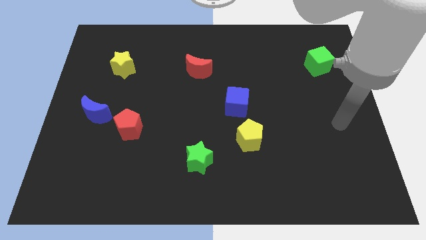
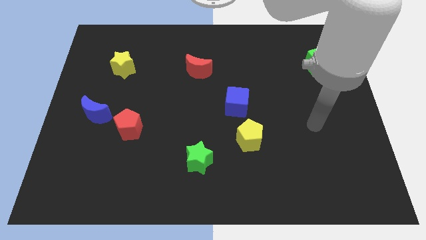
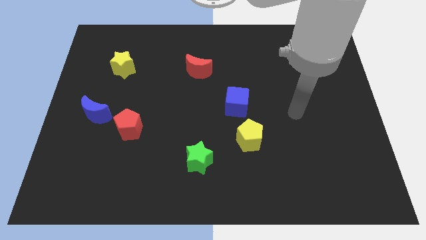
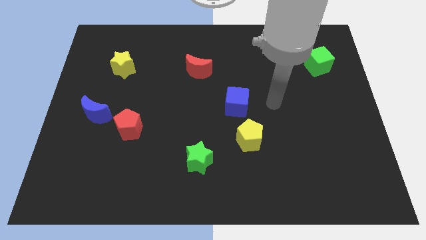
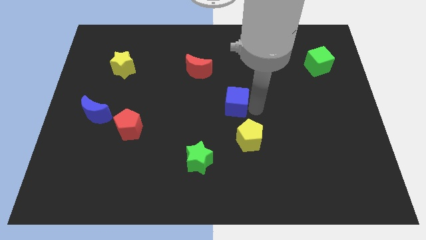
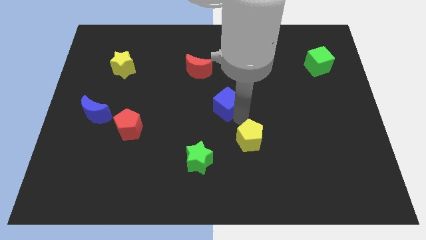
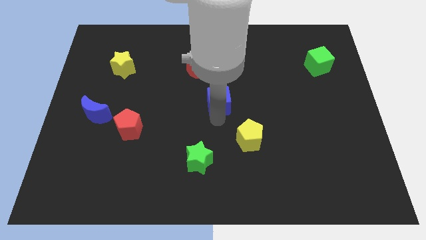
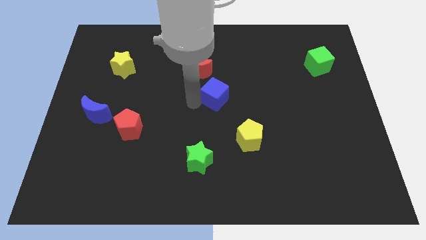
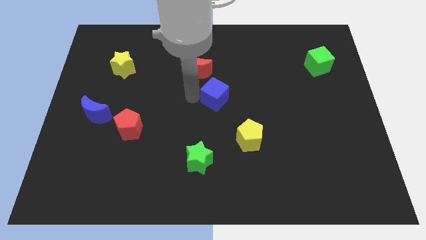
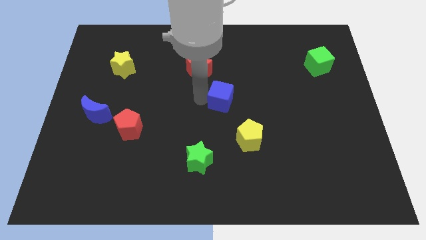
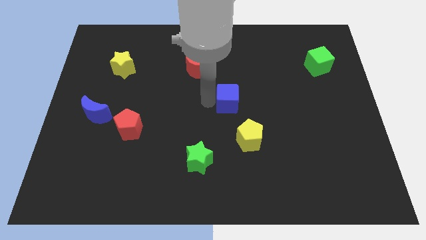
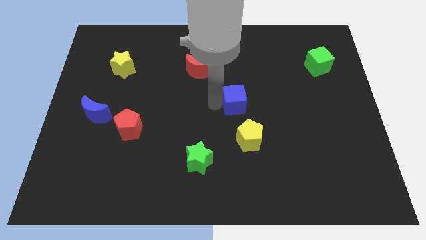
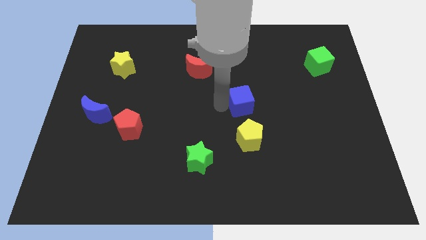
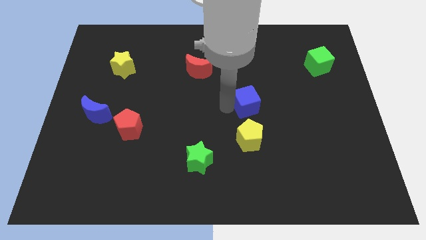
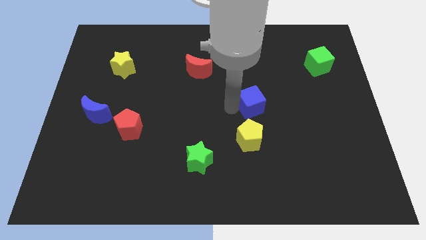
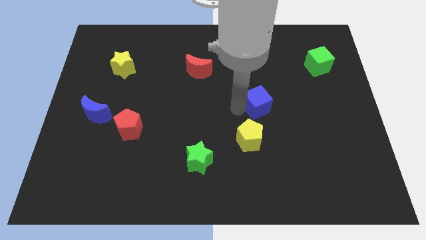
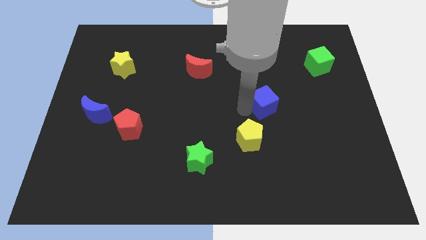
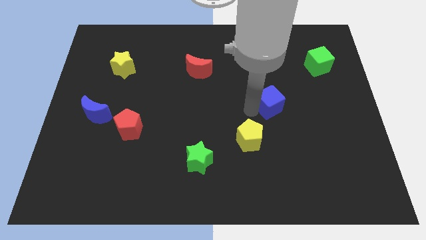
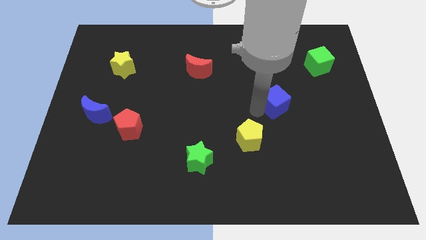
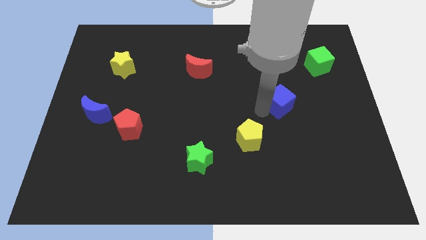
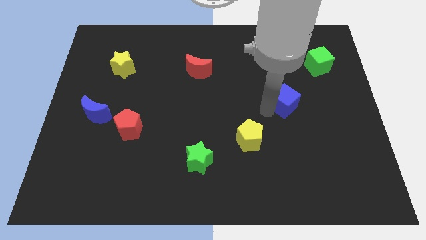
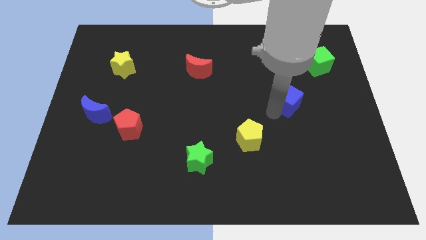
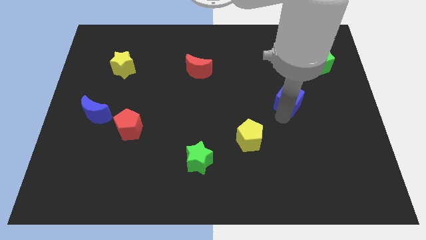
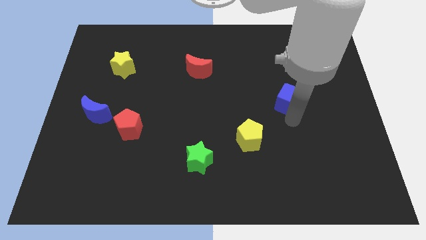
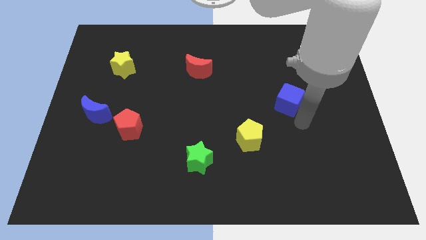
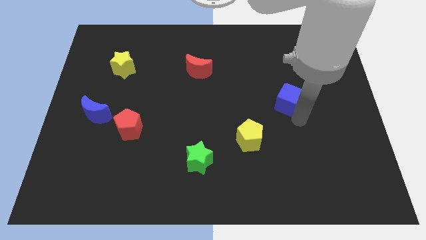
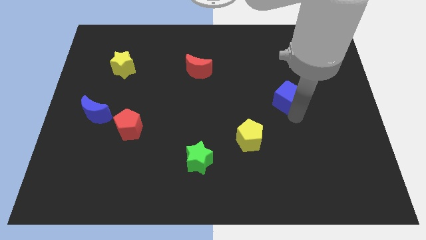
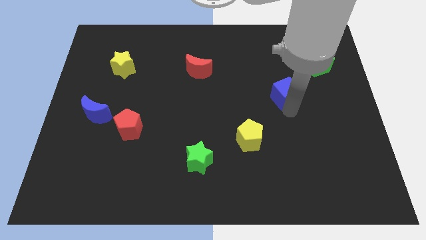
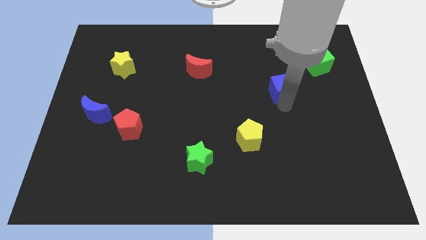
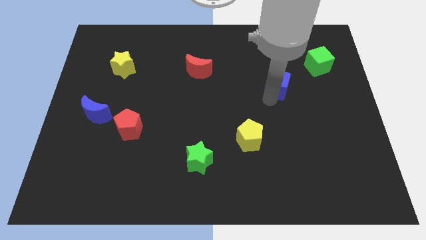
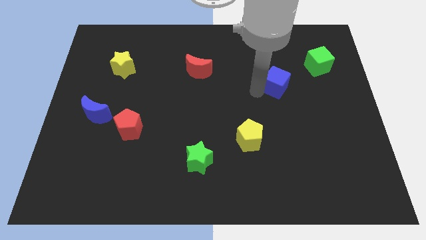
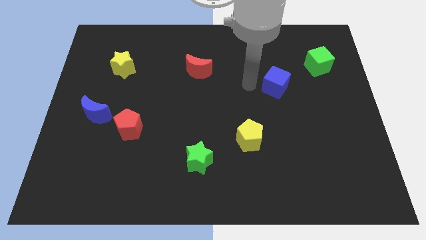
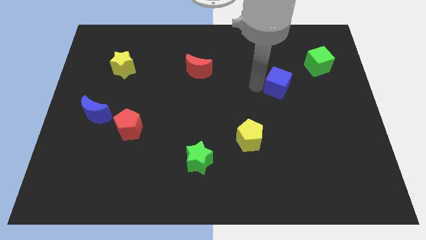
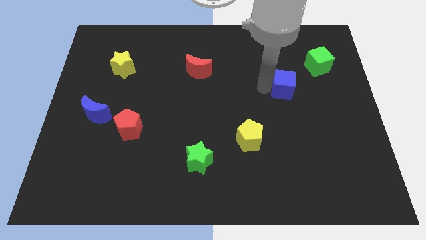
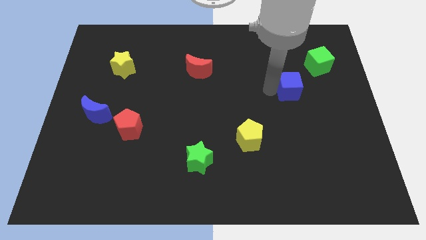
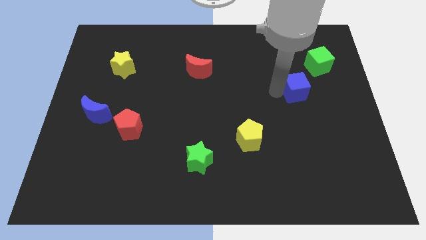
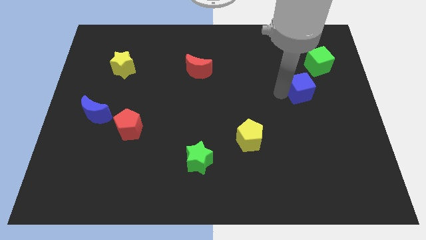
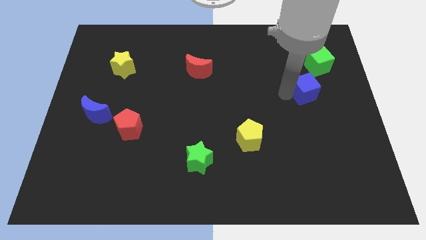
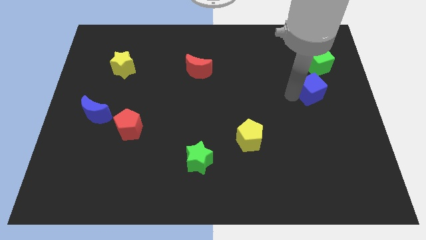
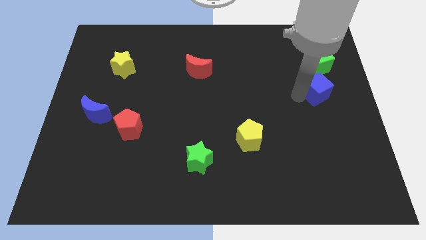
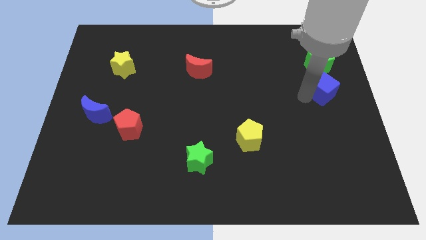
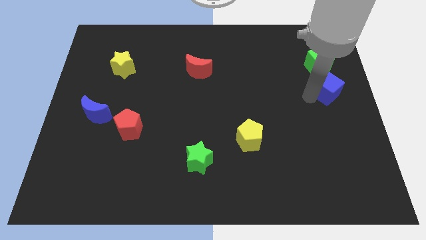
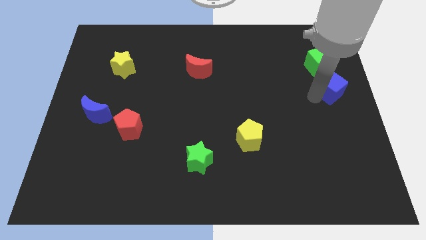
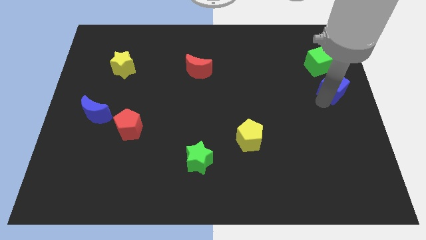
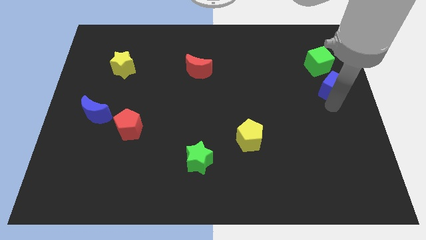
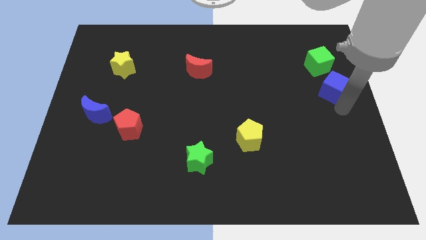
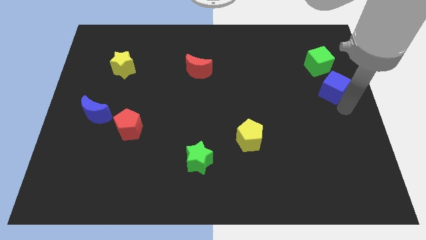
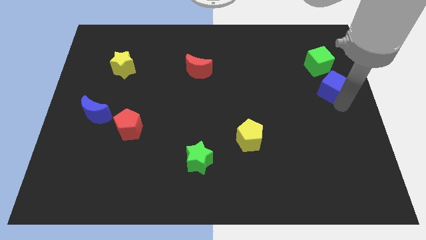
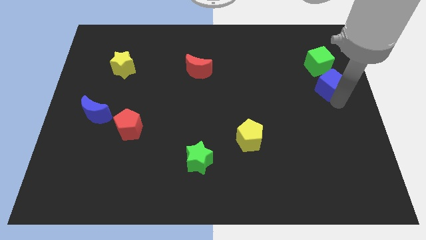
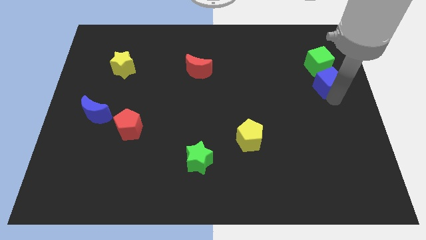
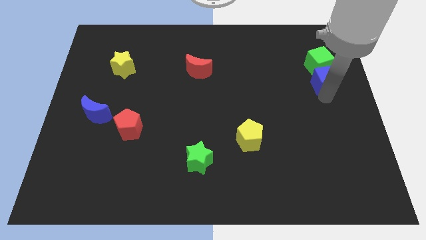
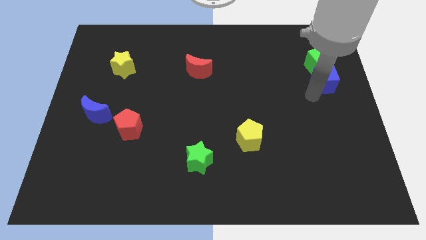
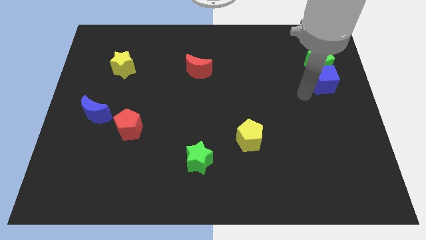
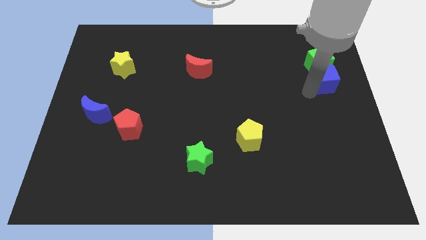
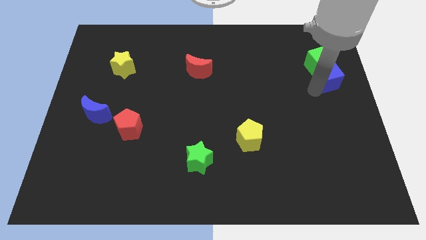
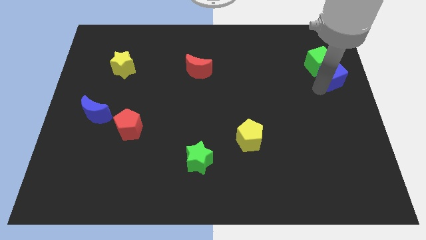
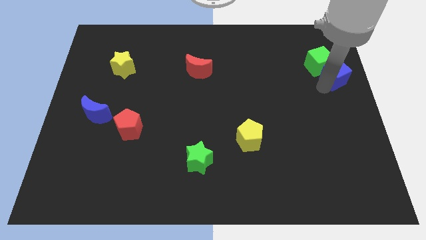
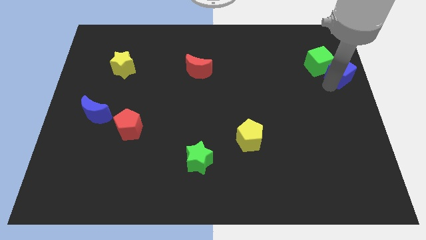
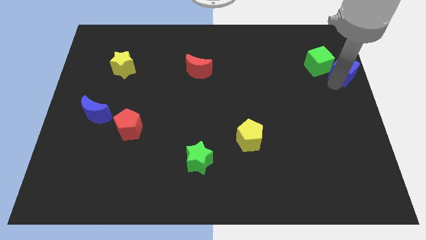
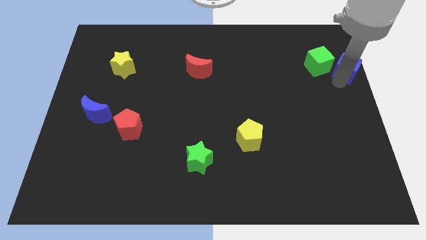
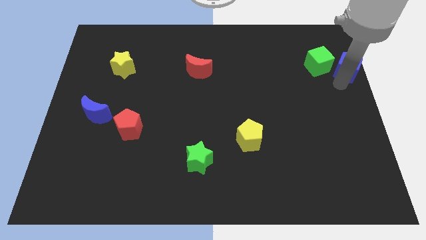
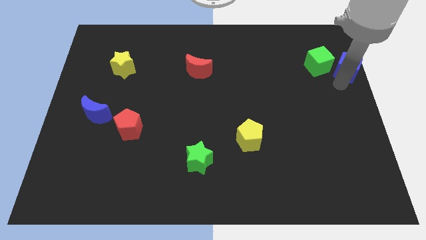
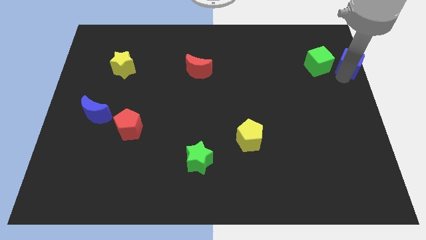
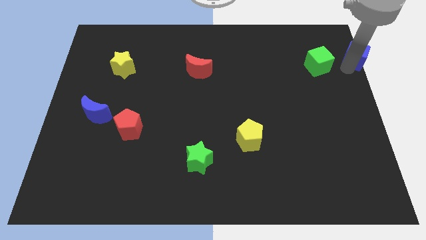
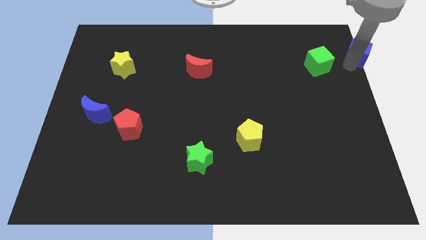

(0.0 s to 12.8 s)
move the blue cube to the top right
